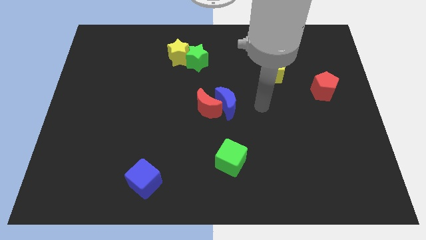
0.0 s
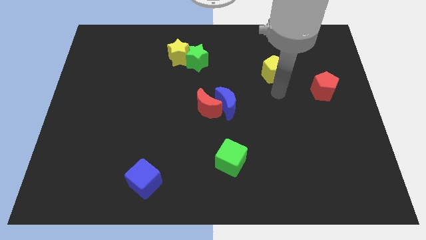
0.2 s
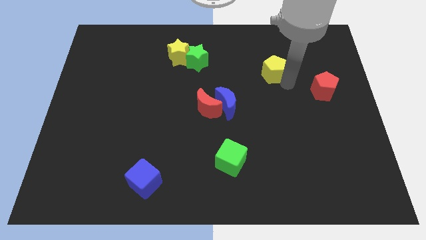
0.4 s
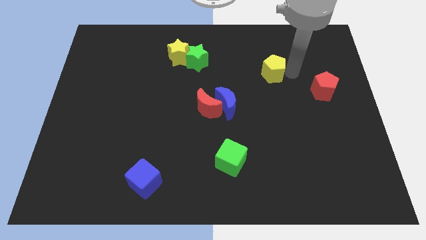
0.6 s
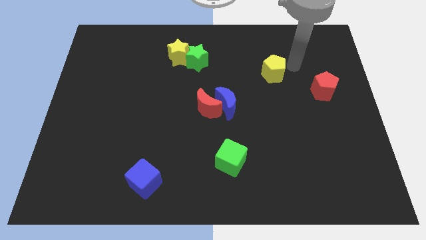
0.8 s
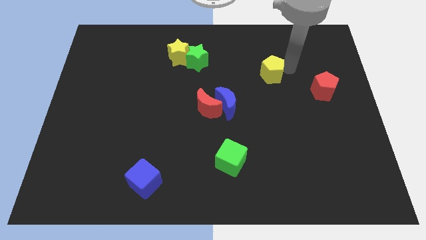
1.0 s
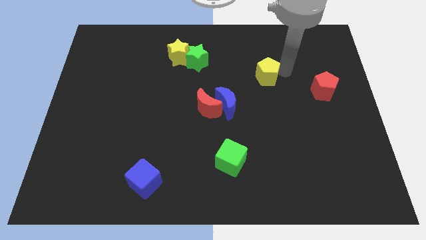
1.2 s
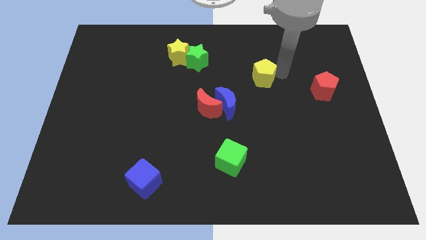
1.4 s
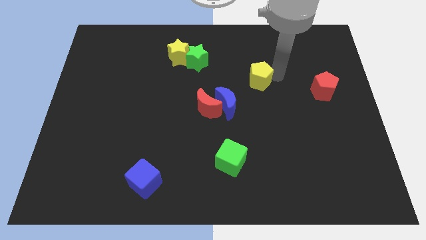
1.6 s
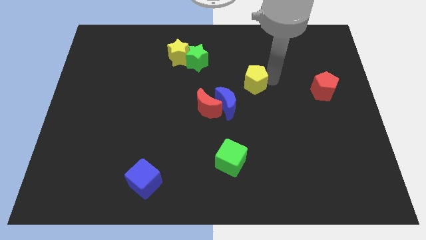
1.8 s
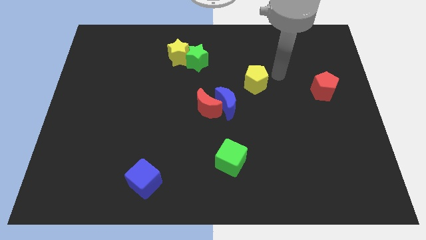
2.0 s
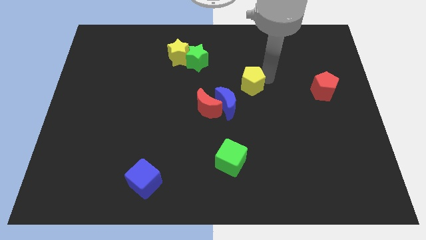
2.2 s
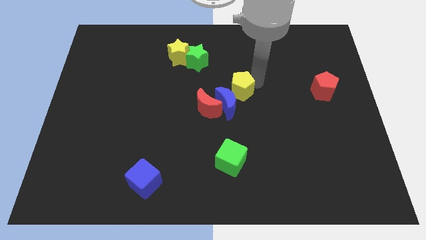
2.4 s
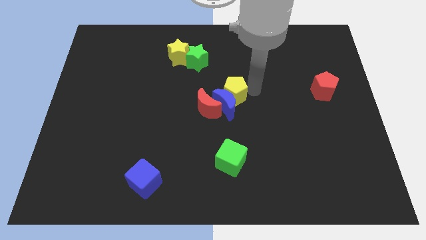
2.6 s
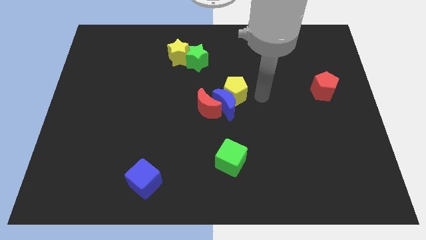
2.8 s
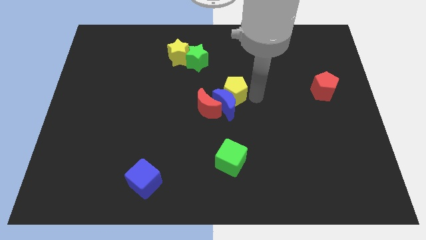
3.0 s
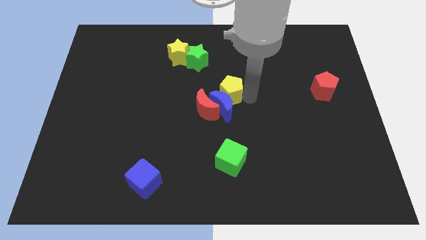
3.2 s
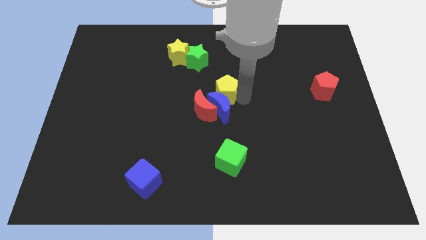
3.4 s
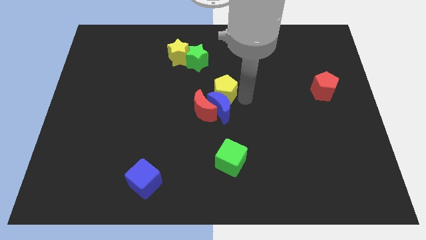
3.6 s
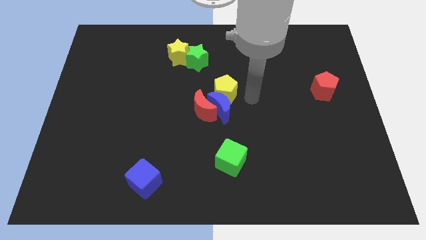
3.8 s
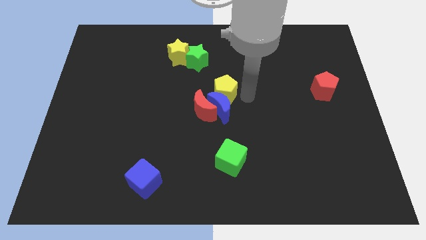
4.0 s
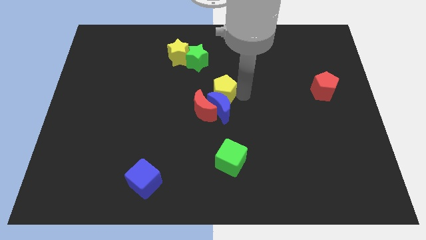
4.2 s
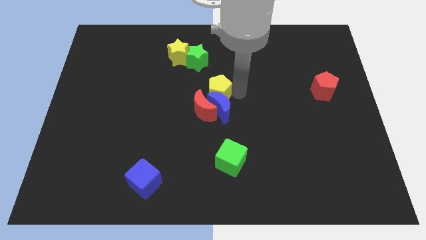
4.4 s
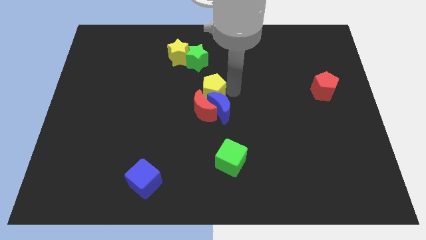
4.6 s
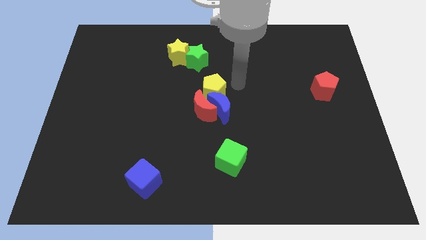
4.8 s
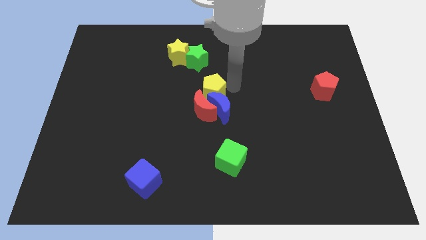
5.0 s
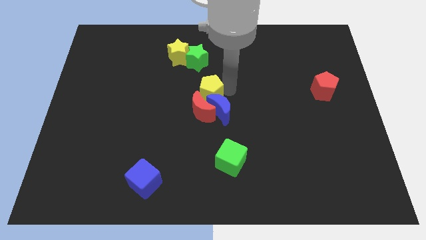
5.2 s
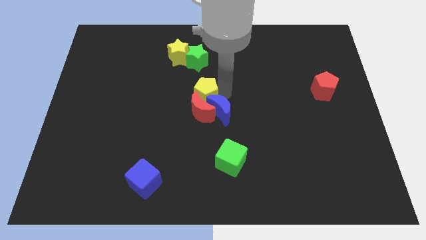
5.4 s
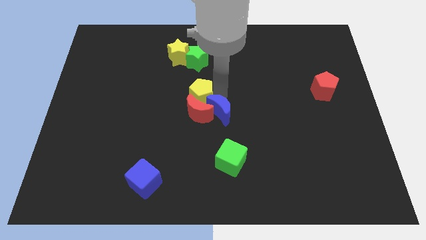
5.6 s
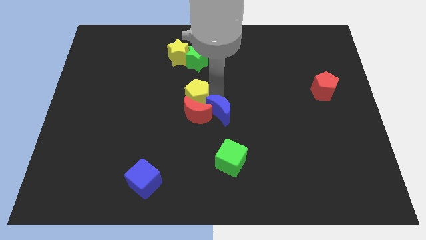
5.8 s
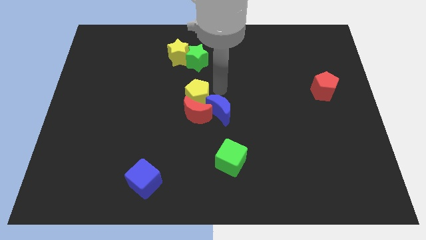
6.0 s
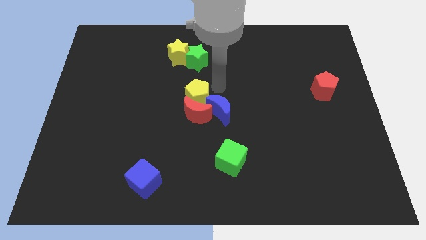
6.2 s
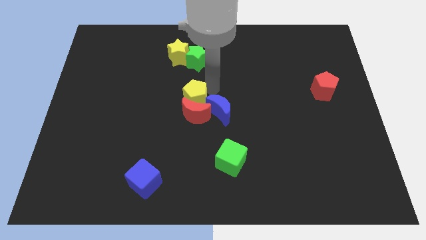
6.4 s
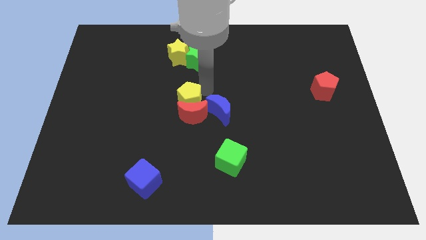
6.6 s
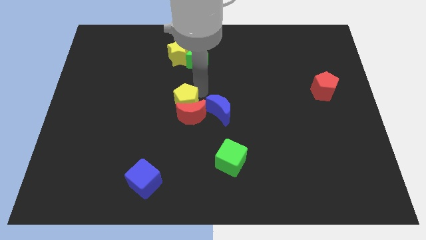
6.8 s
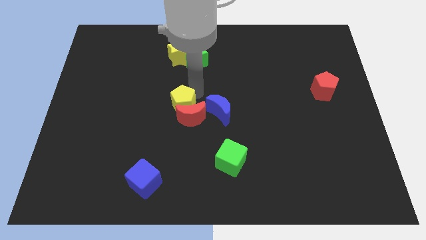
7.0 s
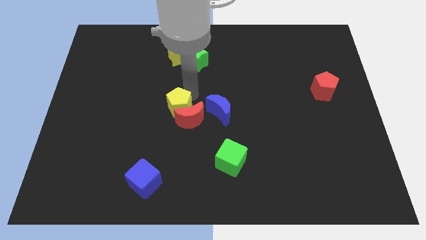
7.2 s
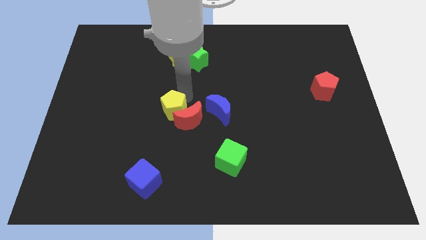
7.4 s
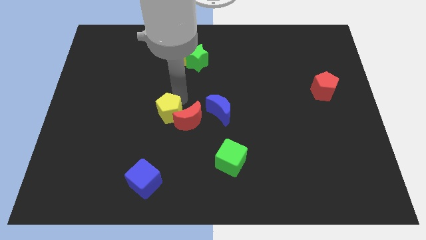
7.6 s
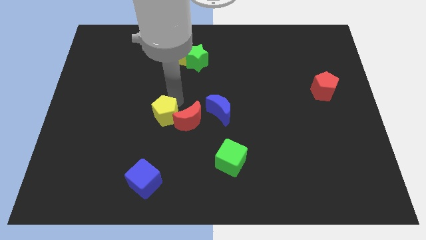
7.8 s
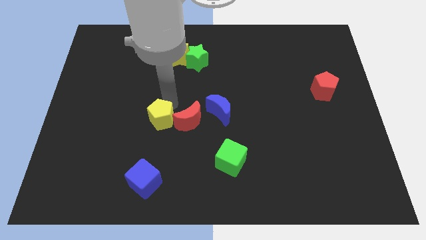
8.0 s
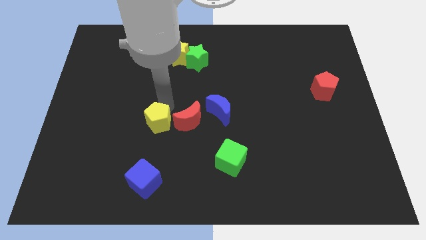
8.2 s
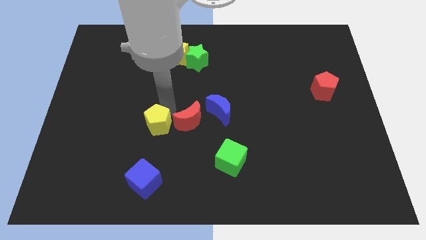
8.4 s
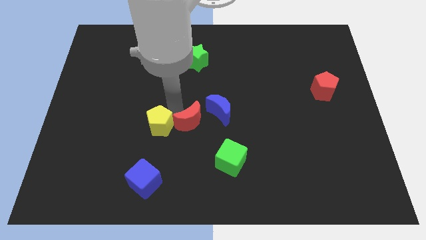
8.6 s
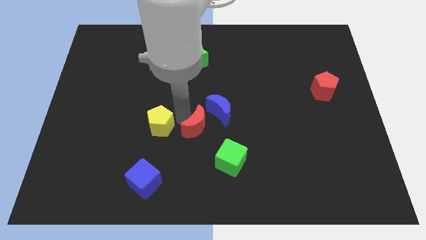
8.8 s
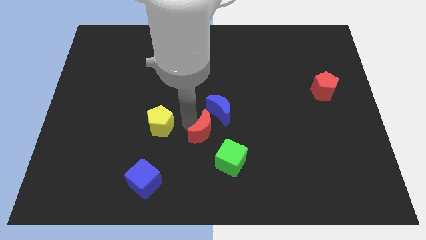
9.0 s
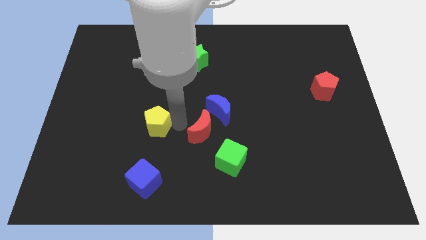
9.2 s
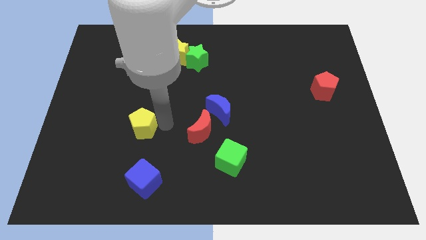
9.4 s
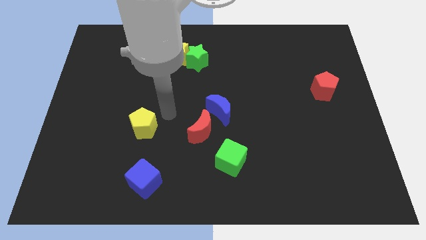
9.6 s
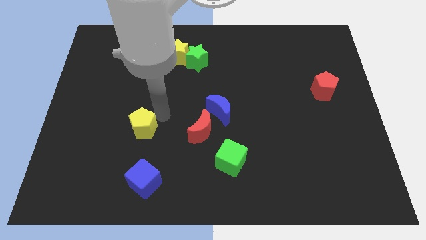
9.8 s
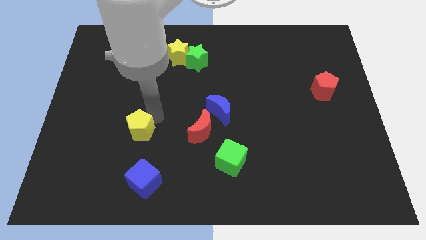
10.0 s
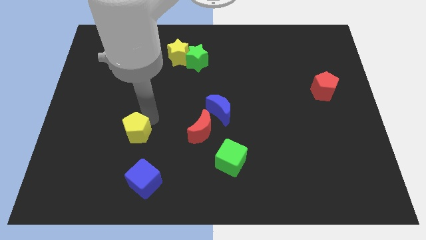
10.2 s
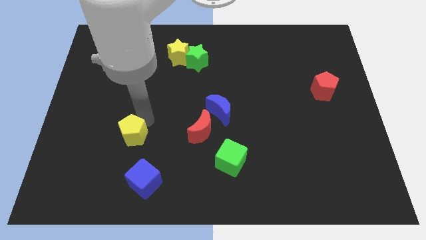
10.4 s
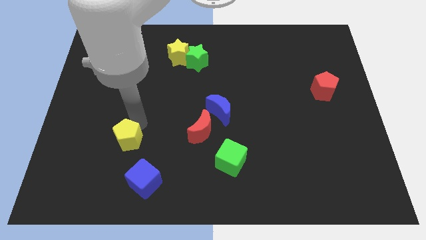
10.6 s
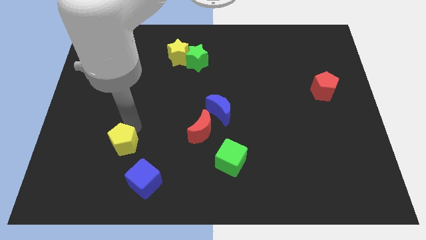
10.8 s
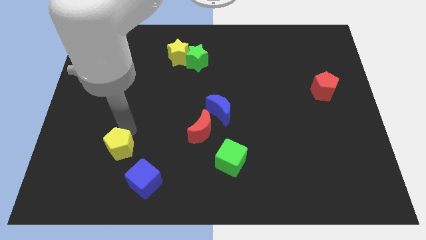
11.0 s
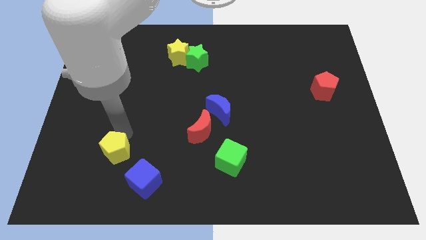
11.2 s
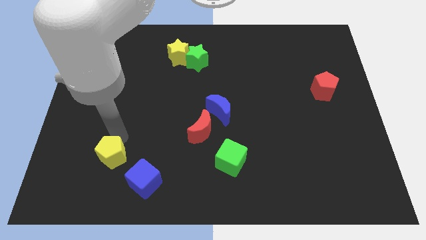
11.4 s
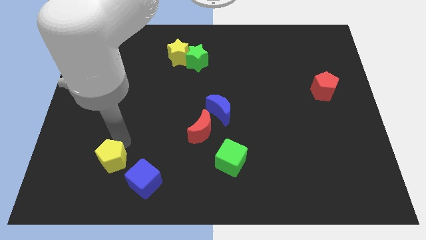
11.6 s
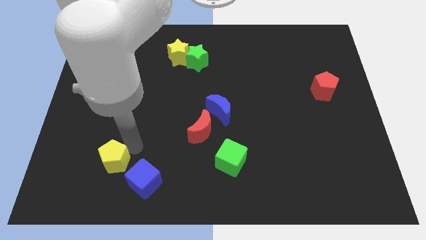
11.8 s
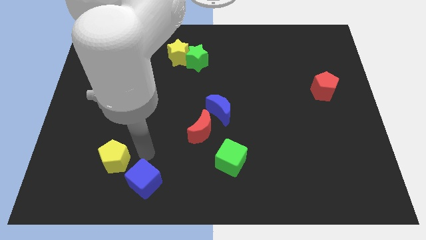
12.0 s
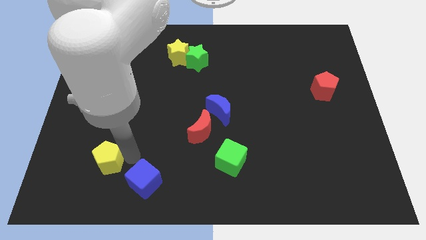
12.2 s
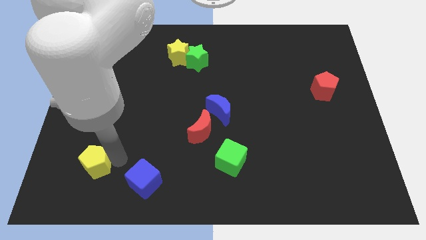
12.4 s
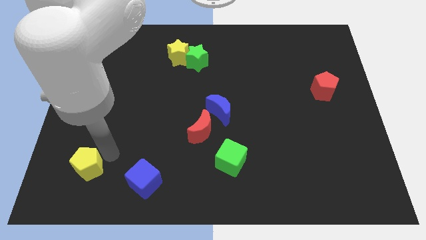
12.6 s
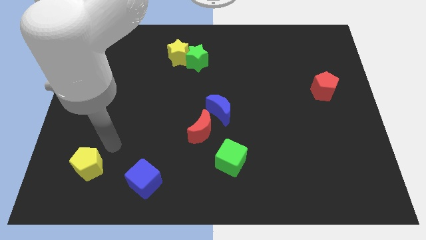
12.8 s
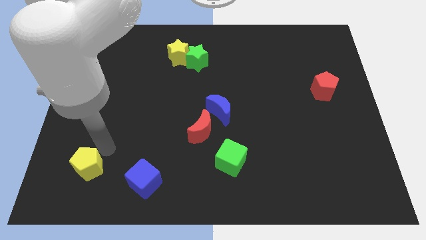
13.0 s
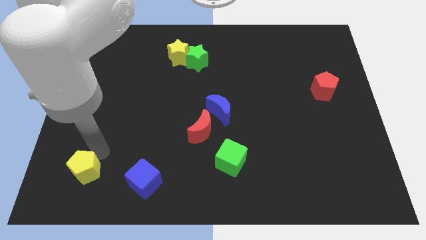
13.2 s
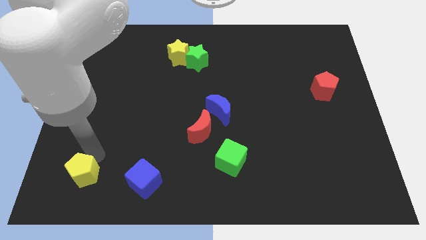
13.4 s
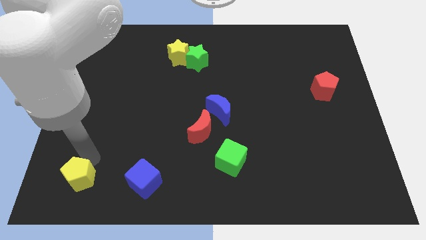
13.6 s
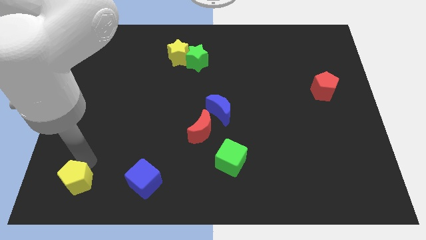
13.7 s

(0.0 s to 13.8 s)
push the yellow pentagon to the bottom left
